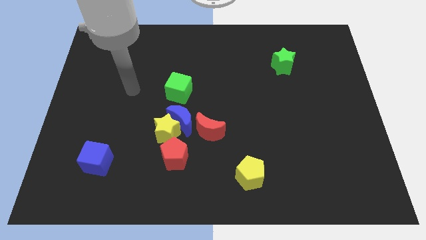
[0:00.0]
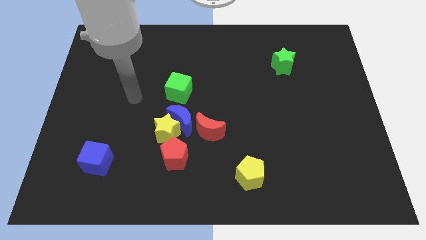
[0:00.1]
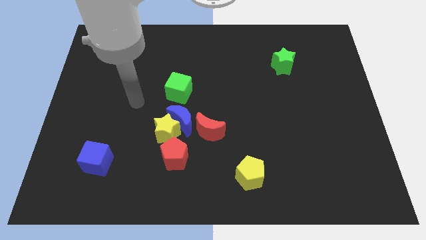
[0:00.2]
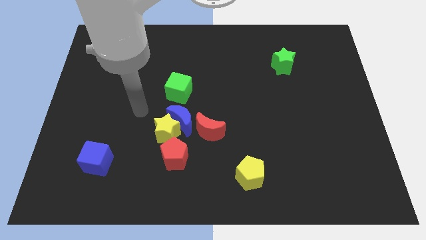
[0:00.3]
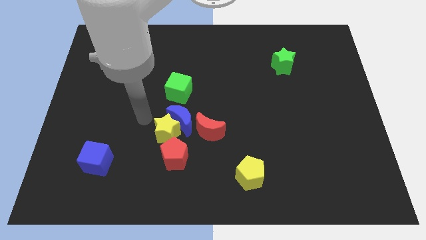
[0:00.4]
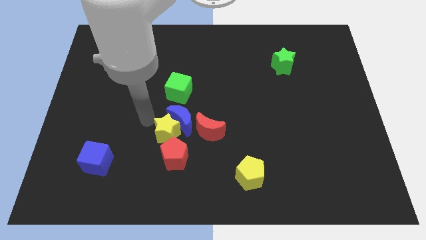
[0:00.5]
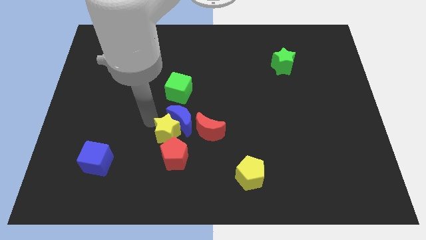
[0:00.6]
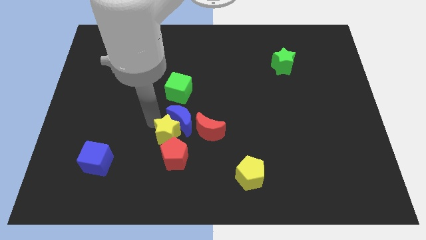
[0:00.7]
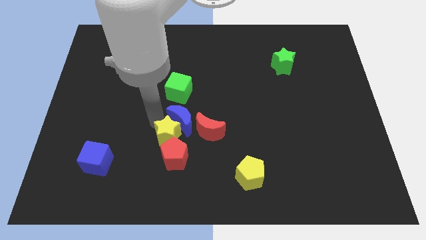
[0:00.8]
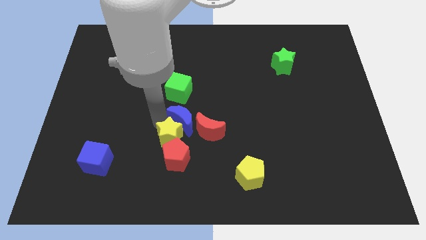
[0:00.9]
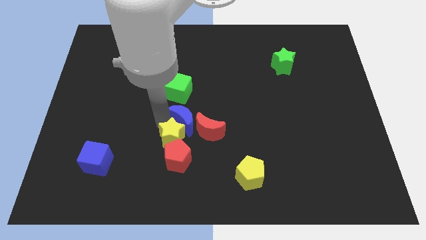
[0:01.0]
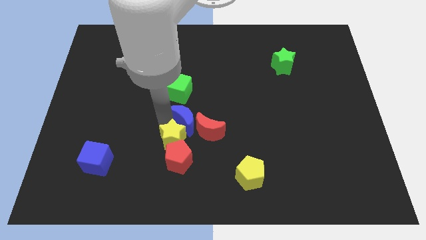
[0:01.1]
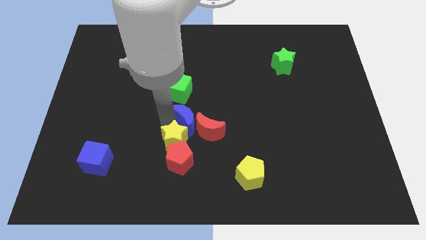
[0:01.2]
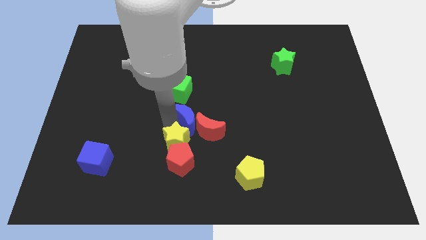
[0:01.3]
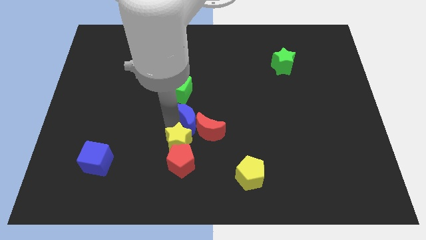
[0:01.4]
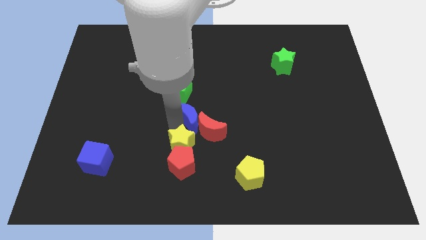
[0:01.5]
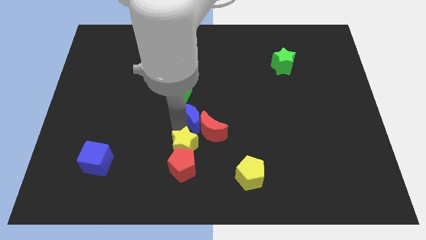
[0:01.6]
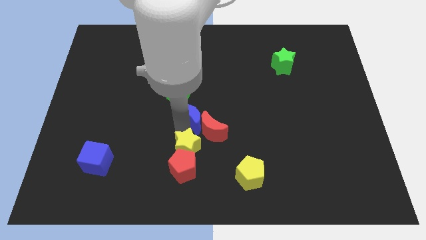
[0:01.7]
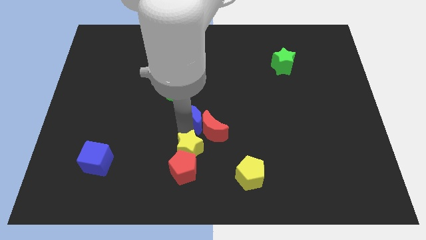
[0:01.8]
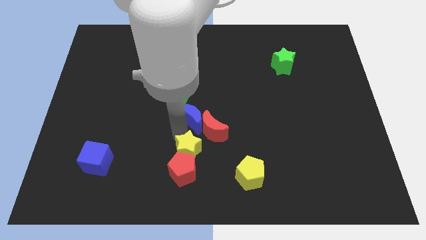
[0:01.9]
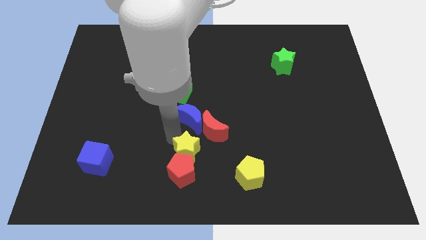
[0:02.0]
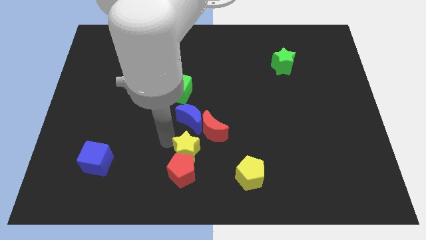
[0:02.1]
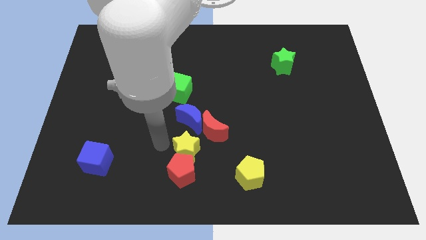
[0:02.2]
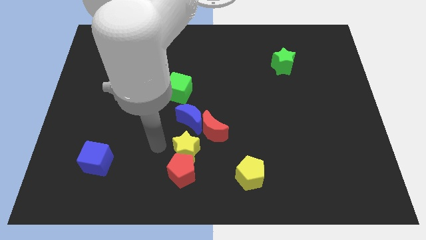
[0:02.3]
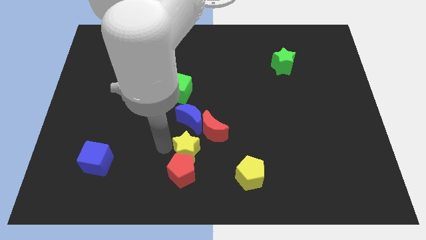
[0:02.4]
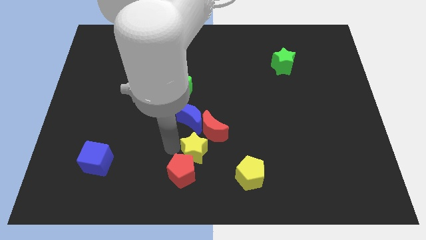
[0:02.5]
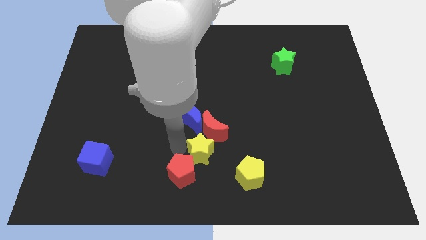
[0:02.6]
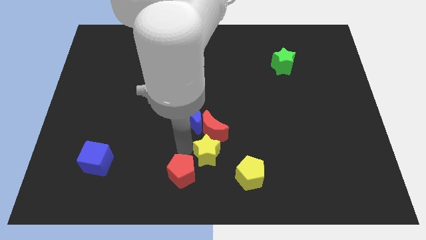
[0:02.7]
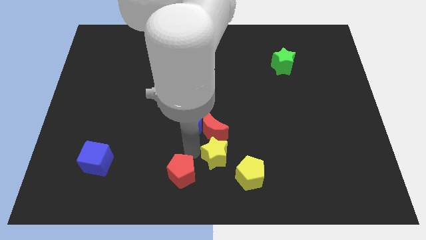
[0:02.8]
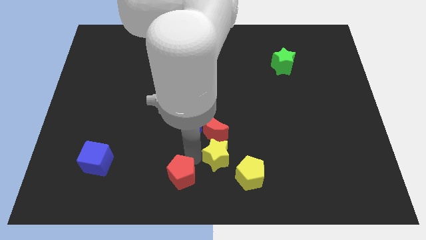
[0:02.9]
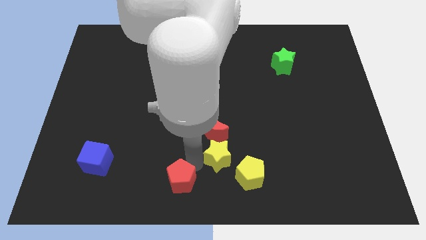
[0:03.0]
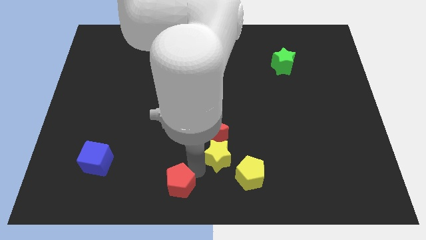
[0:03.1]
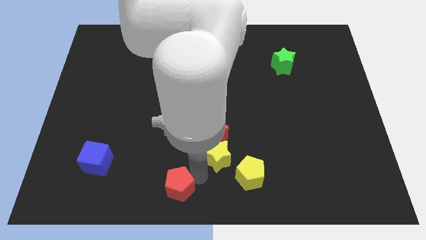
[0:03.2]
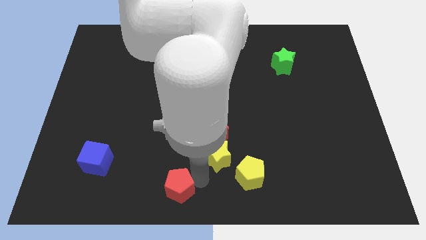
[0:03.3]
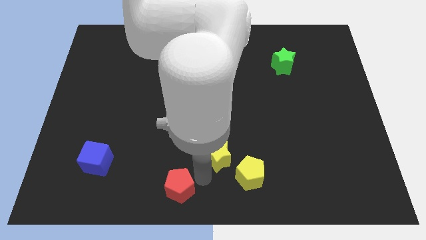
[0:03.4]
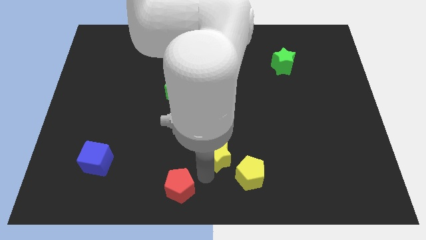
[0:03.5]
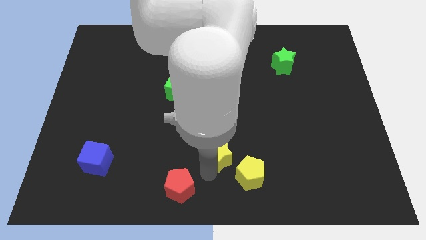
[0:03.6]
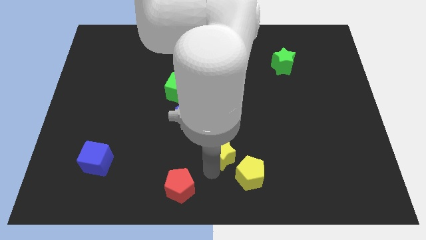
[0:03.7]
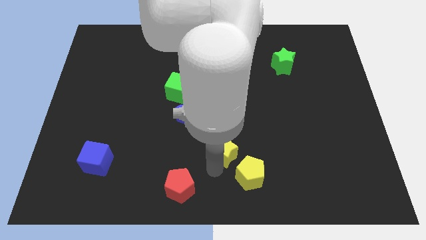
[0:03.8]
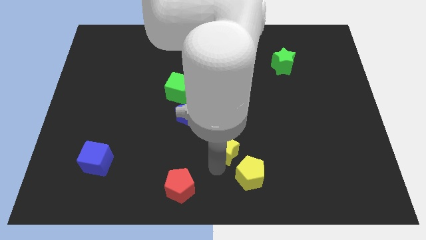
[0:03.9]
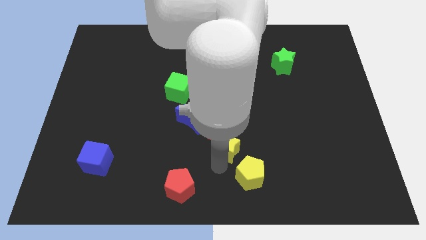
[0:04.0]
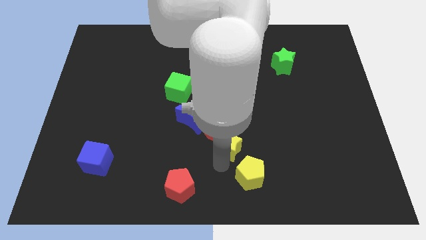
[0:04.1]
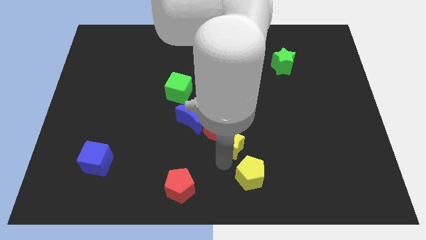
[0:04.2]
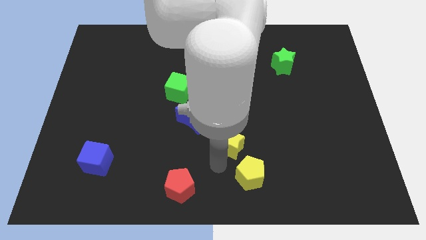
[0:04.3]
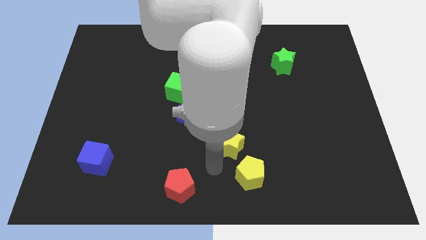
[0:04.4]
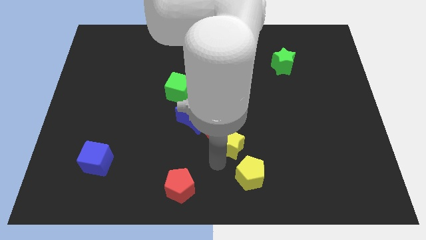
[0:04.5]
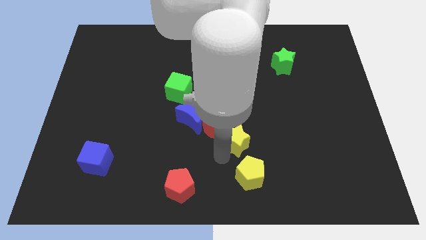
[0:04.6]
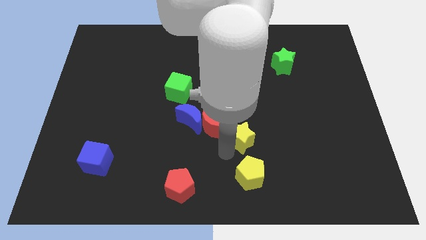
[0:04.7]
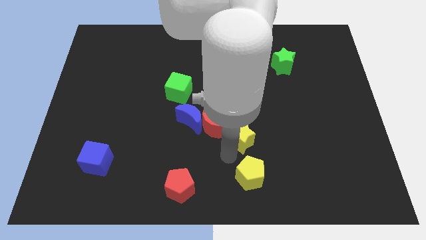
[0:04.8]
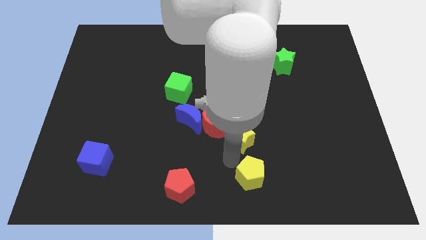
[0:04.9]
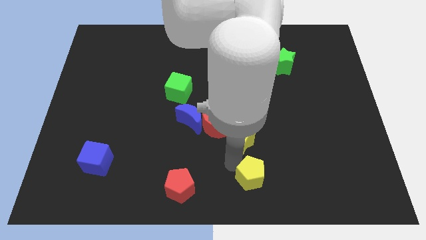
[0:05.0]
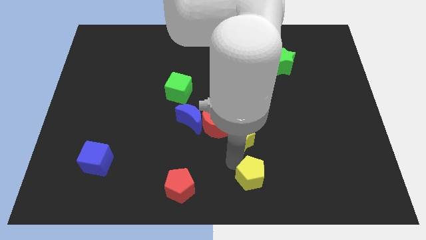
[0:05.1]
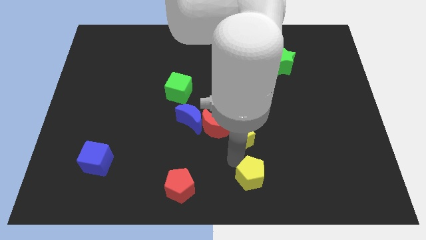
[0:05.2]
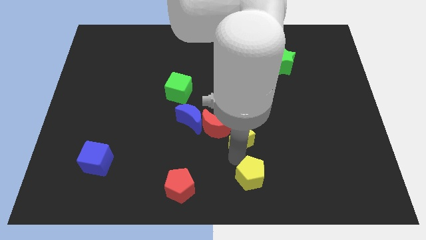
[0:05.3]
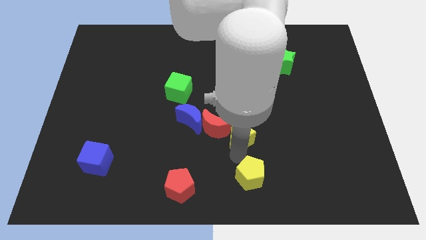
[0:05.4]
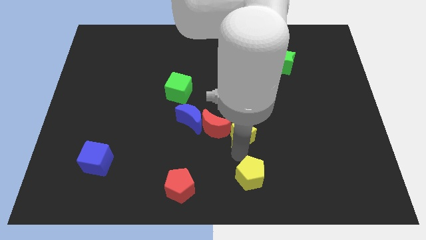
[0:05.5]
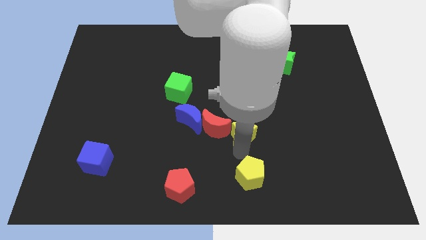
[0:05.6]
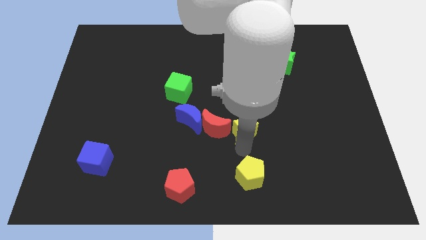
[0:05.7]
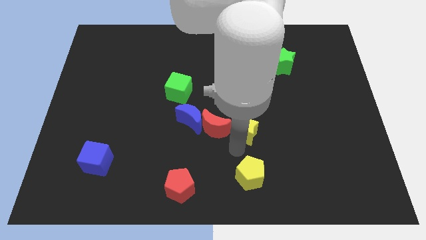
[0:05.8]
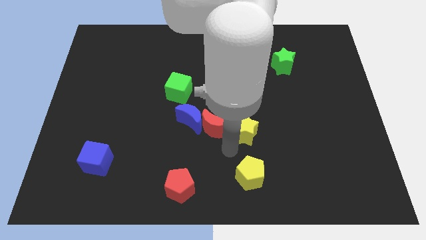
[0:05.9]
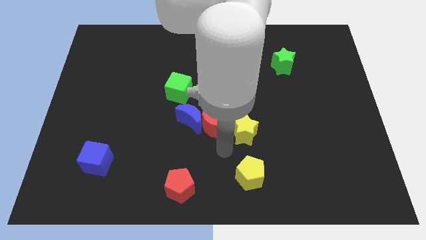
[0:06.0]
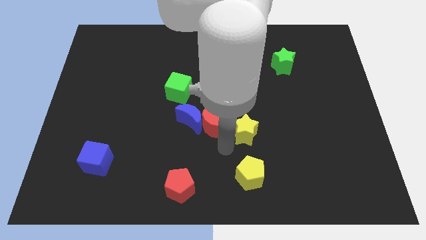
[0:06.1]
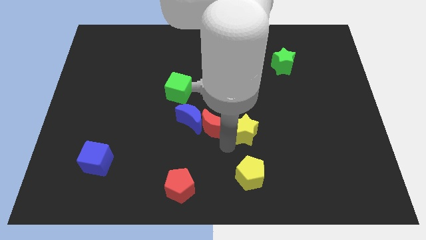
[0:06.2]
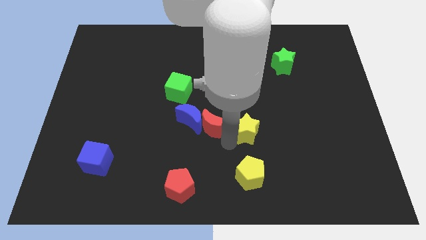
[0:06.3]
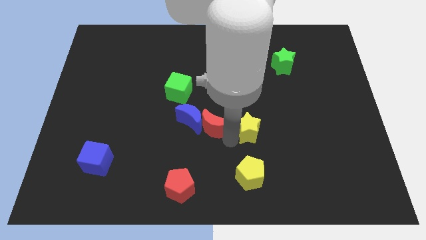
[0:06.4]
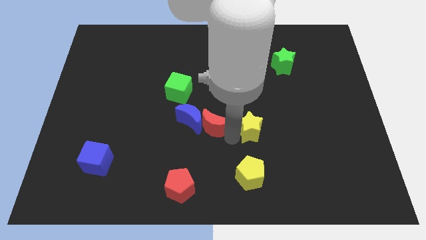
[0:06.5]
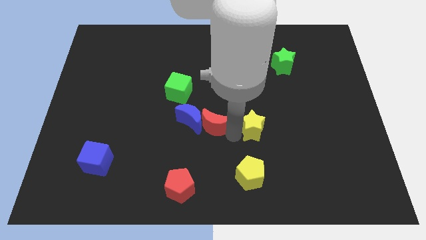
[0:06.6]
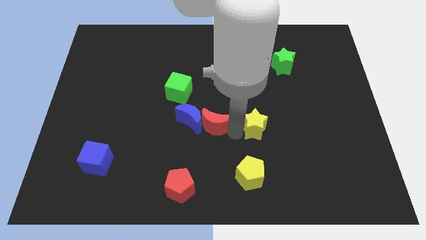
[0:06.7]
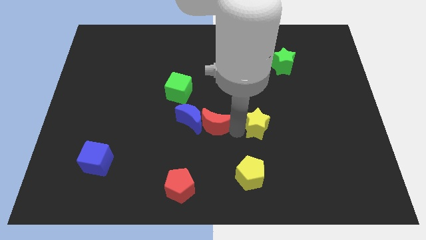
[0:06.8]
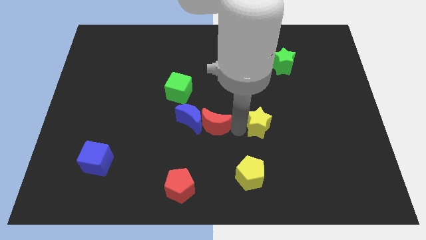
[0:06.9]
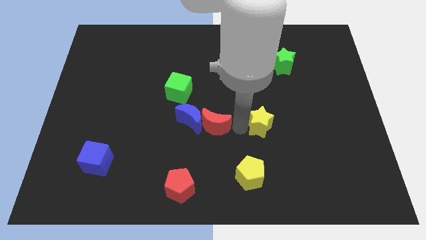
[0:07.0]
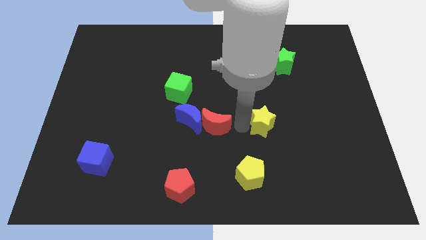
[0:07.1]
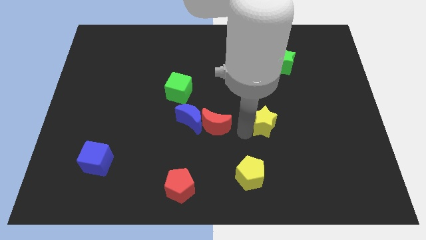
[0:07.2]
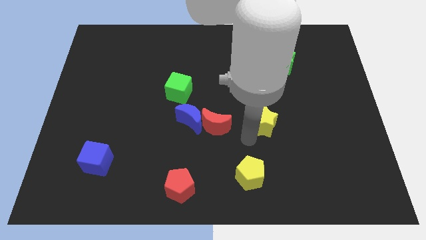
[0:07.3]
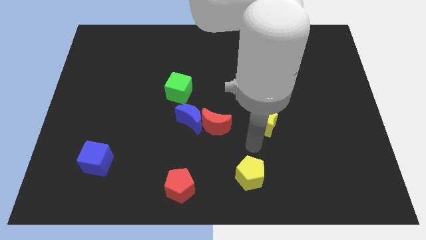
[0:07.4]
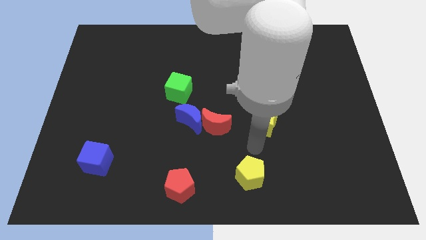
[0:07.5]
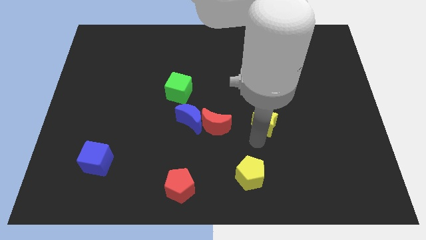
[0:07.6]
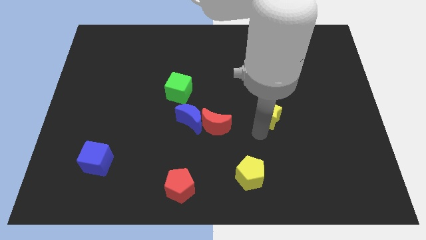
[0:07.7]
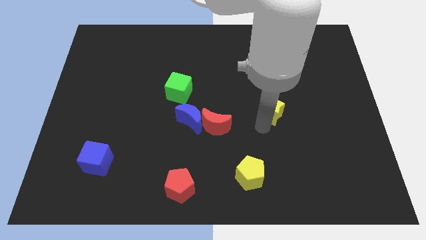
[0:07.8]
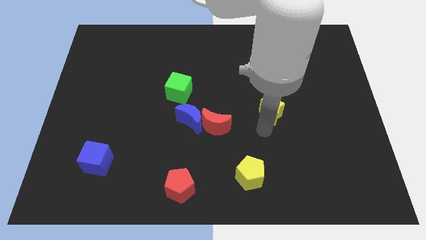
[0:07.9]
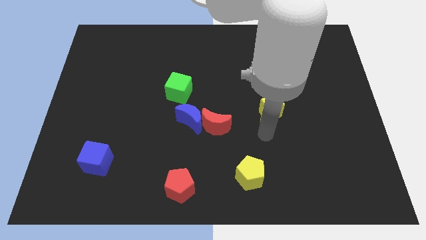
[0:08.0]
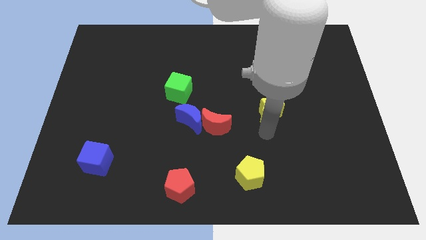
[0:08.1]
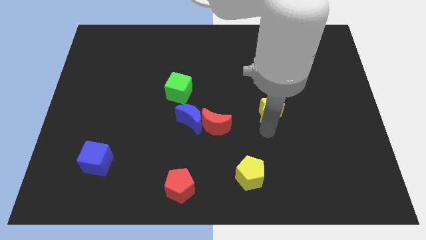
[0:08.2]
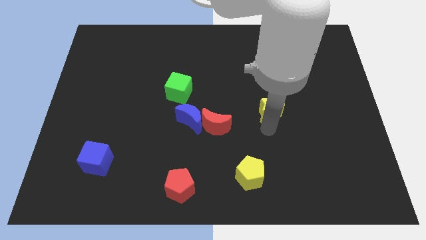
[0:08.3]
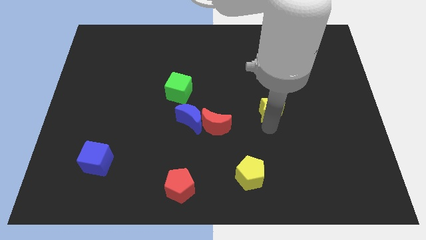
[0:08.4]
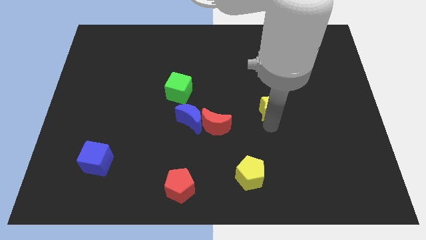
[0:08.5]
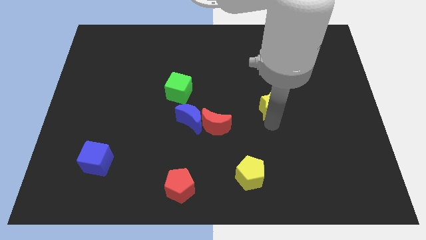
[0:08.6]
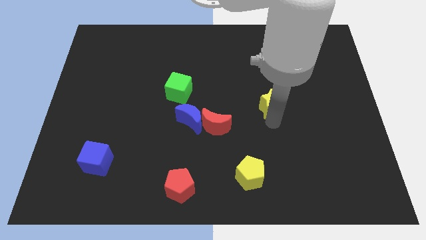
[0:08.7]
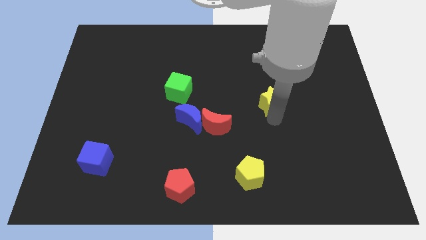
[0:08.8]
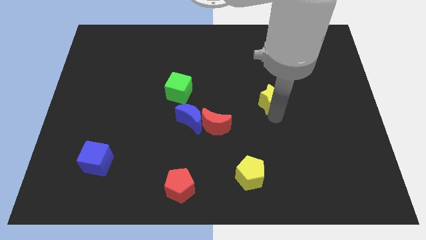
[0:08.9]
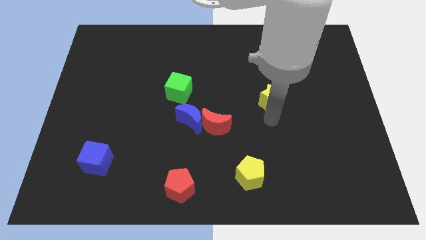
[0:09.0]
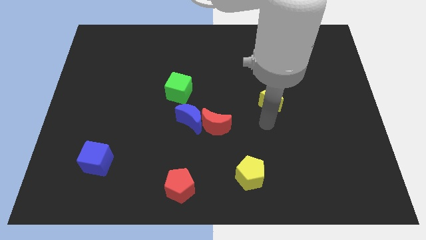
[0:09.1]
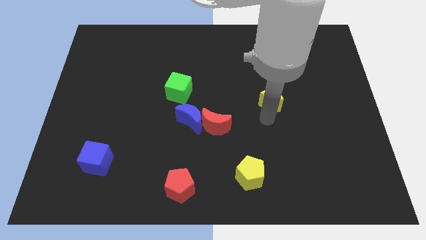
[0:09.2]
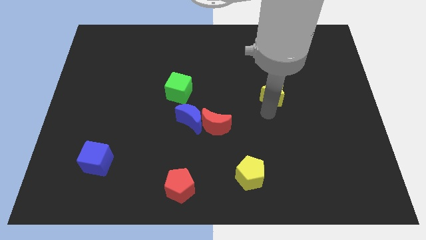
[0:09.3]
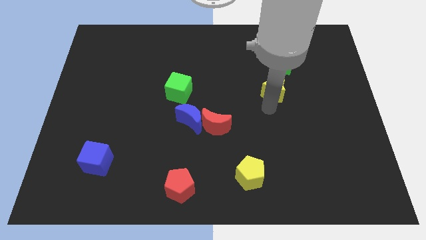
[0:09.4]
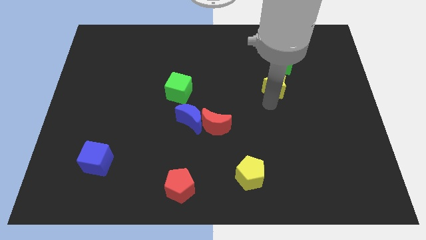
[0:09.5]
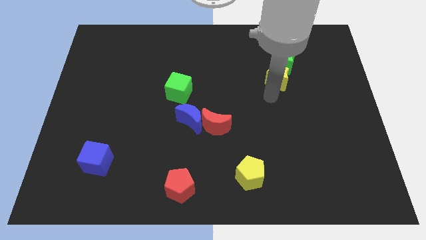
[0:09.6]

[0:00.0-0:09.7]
move the yellow star close to the green star
